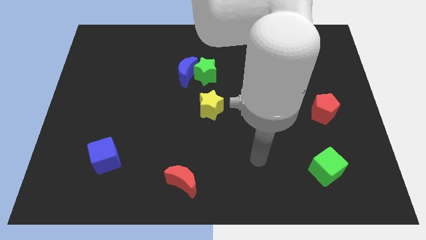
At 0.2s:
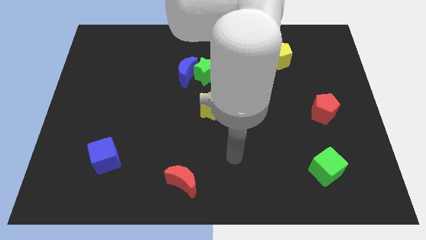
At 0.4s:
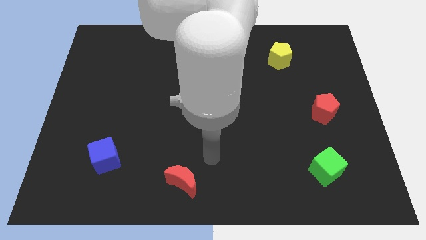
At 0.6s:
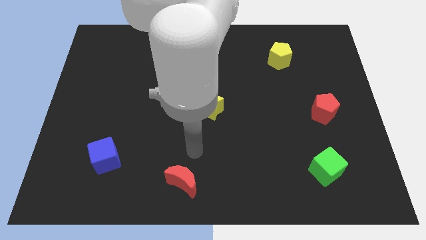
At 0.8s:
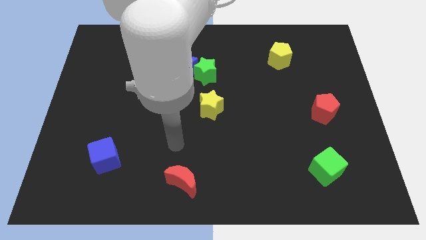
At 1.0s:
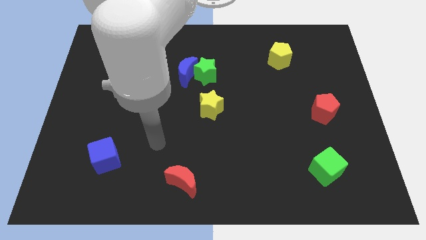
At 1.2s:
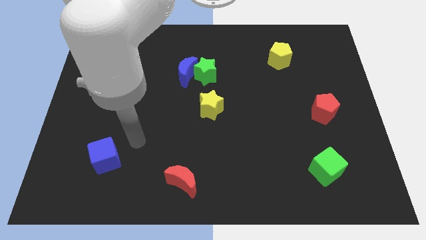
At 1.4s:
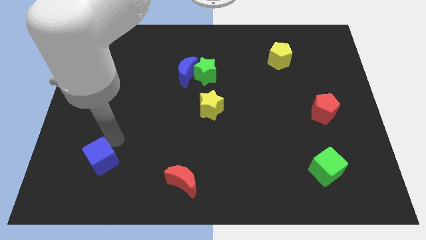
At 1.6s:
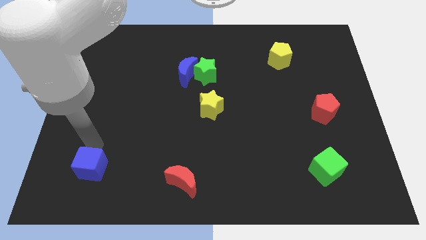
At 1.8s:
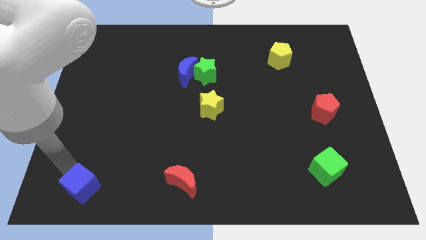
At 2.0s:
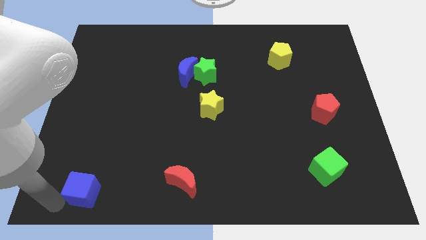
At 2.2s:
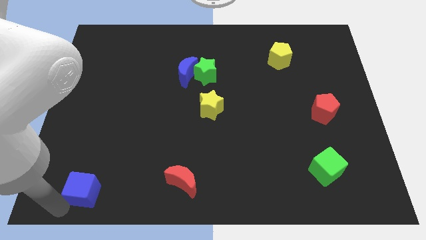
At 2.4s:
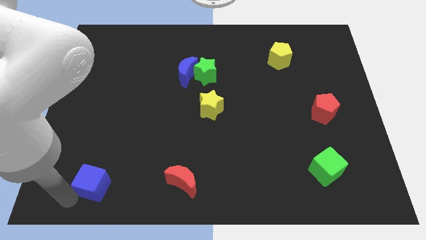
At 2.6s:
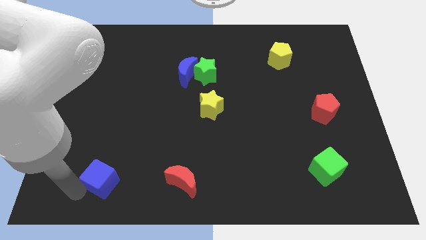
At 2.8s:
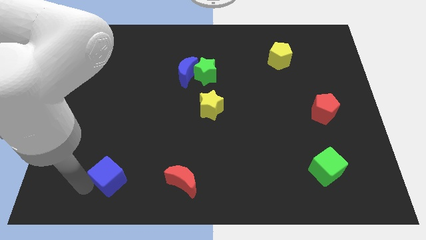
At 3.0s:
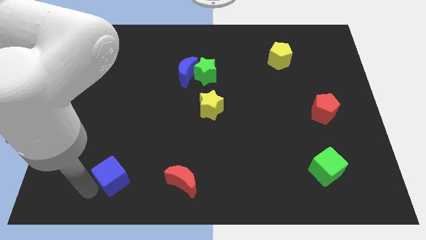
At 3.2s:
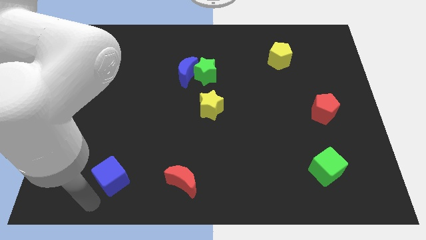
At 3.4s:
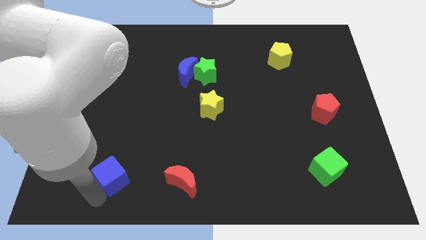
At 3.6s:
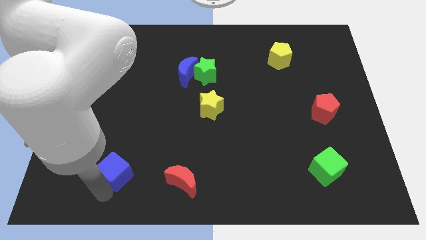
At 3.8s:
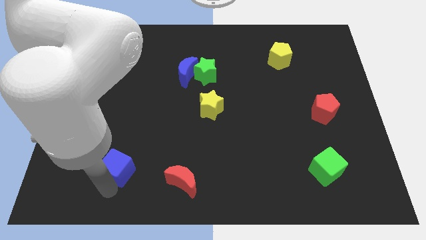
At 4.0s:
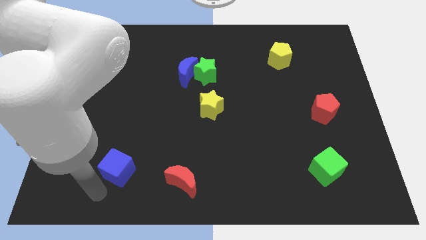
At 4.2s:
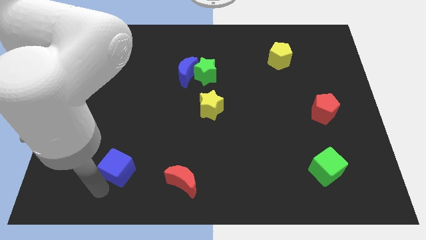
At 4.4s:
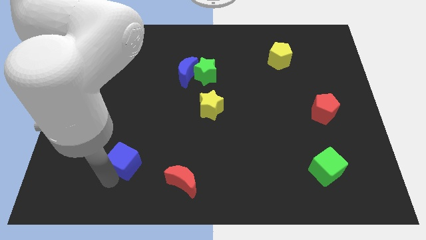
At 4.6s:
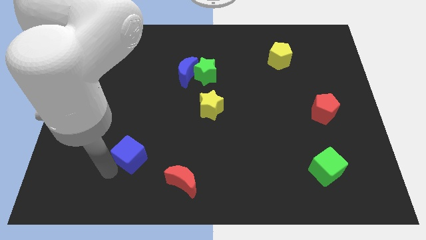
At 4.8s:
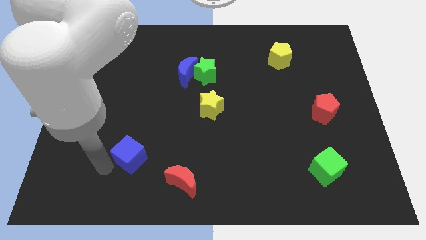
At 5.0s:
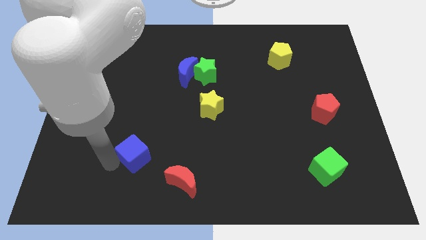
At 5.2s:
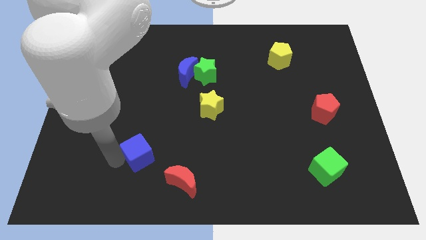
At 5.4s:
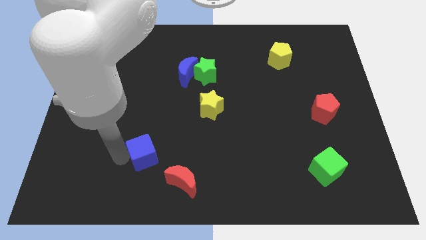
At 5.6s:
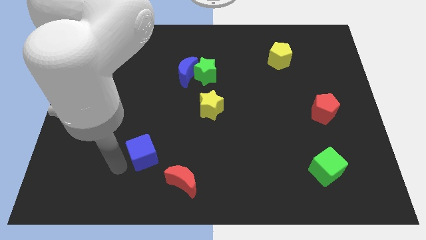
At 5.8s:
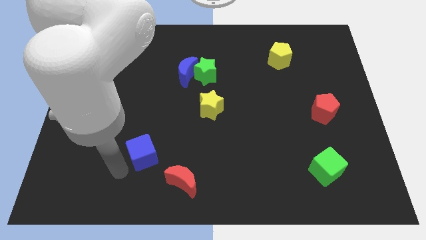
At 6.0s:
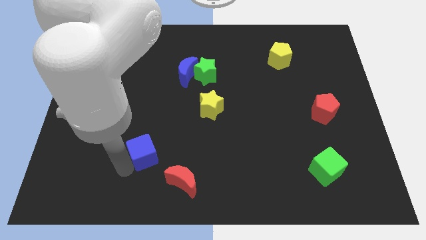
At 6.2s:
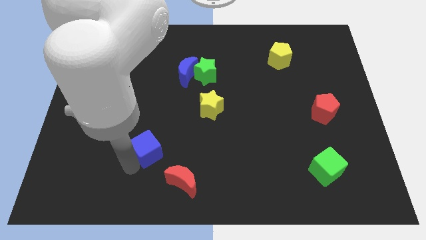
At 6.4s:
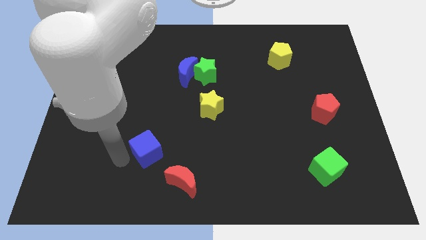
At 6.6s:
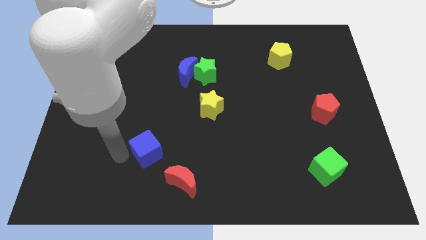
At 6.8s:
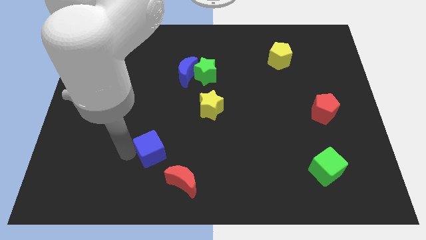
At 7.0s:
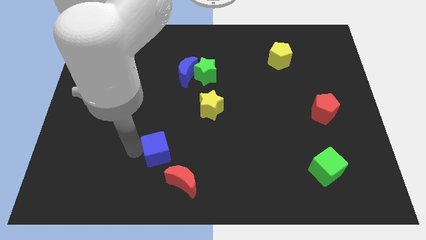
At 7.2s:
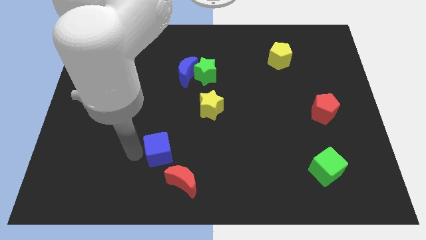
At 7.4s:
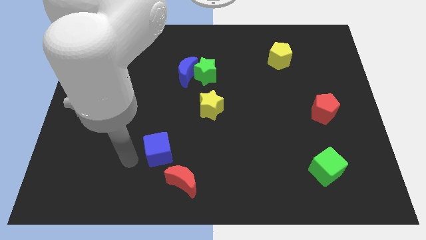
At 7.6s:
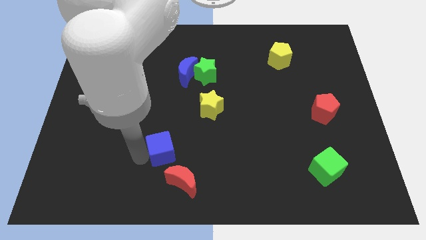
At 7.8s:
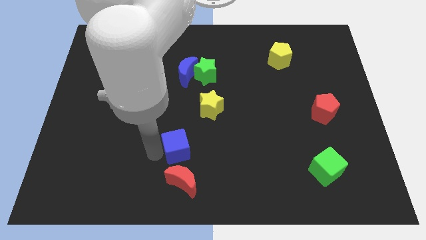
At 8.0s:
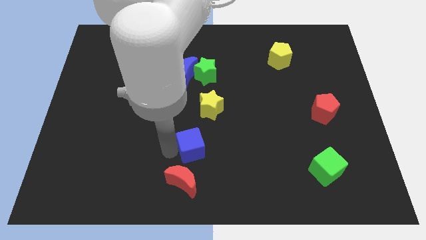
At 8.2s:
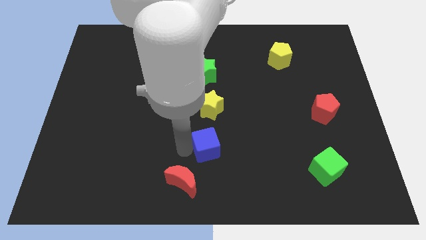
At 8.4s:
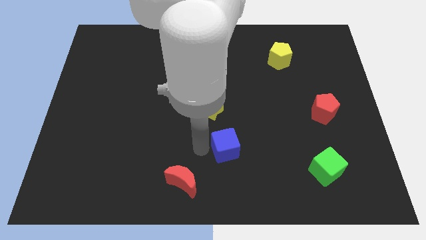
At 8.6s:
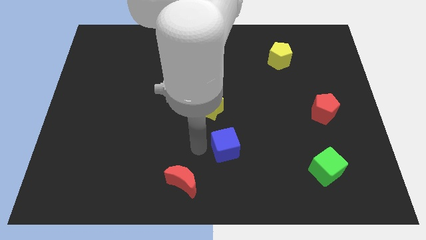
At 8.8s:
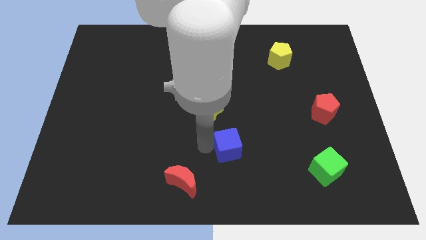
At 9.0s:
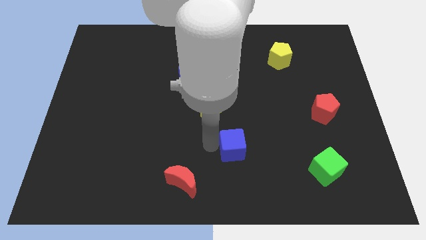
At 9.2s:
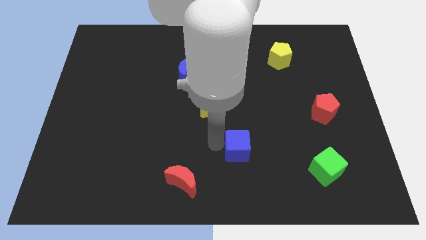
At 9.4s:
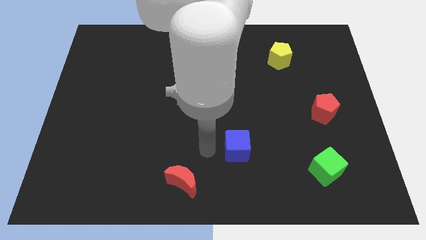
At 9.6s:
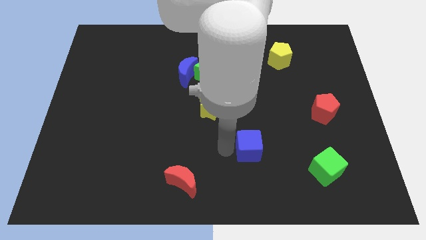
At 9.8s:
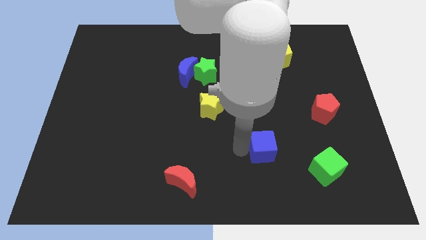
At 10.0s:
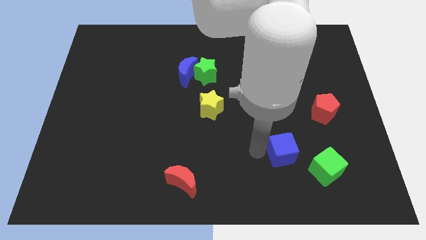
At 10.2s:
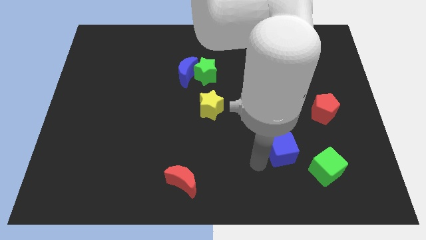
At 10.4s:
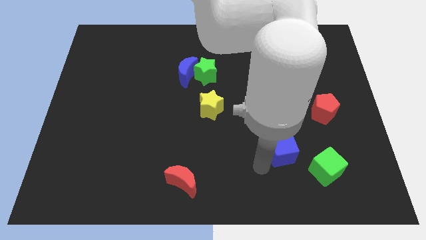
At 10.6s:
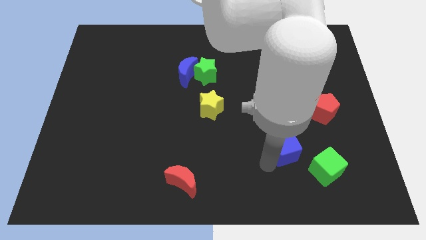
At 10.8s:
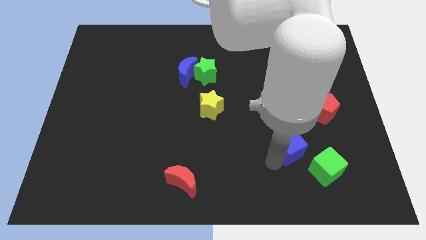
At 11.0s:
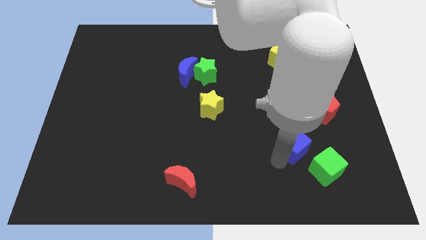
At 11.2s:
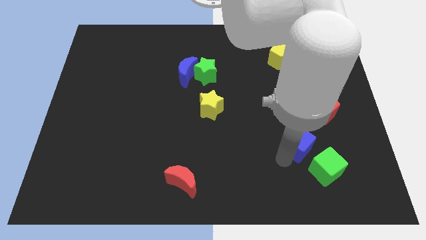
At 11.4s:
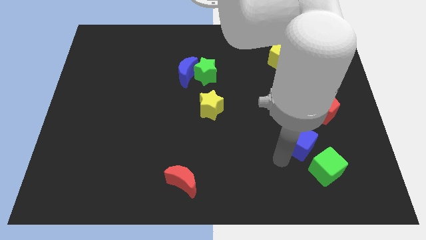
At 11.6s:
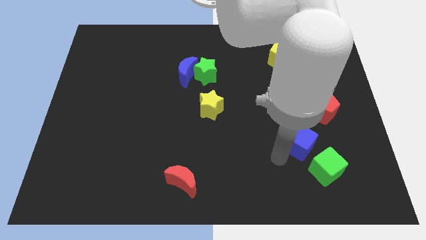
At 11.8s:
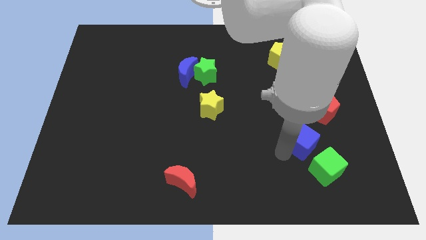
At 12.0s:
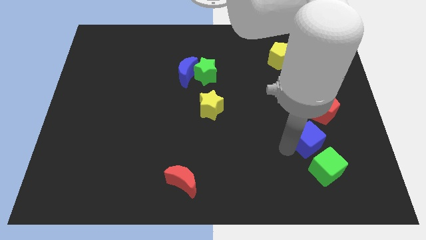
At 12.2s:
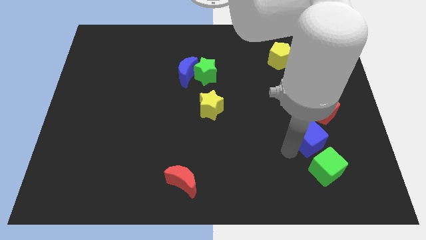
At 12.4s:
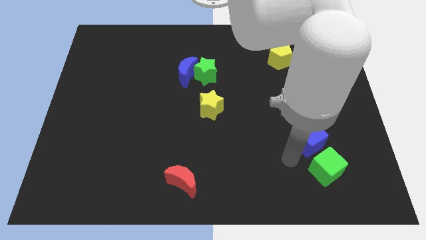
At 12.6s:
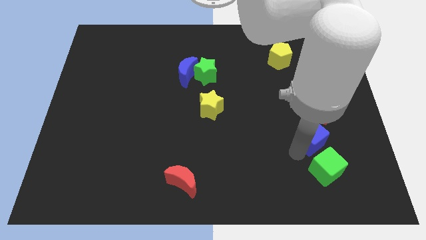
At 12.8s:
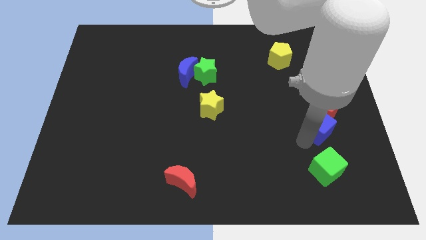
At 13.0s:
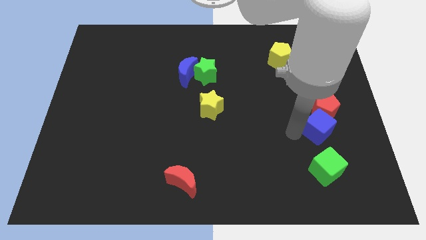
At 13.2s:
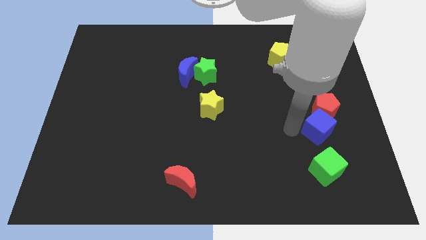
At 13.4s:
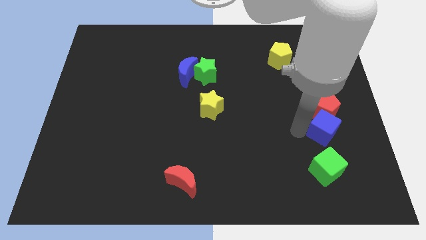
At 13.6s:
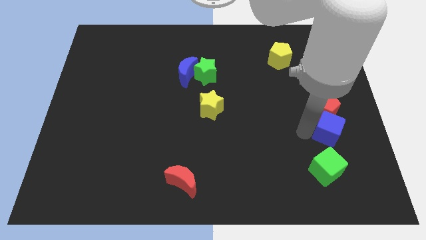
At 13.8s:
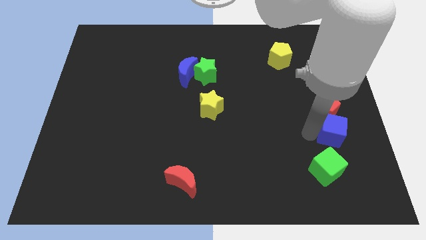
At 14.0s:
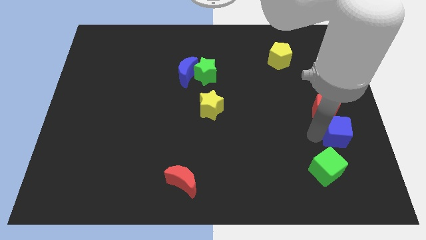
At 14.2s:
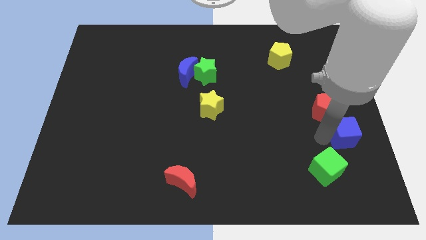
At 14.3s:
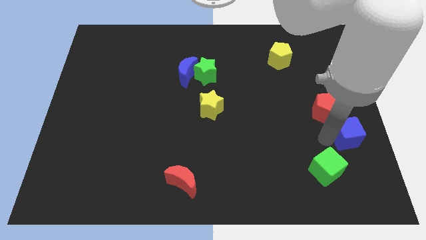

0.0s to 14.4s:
move the blue cube to the right side of the board
